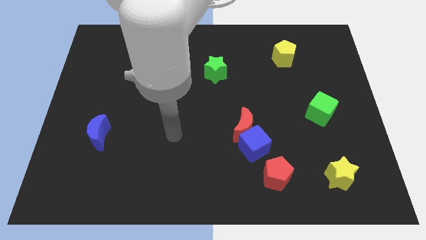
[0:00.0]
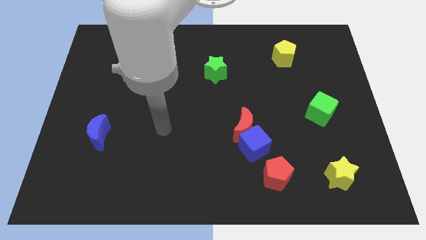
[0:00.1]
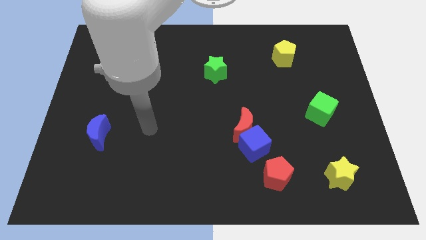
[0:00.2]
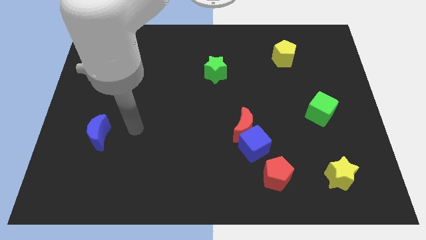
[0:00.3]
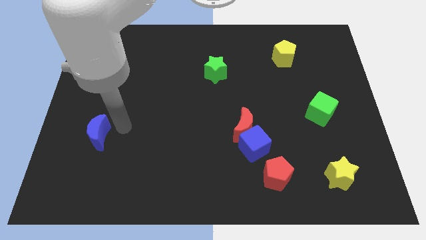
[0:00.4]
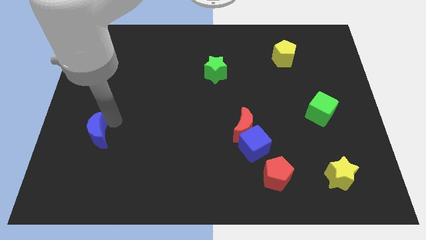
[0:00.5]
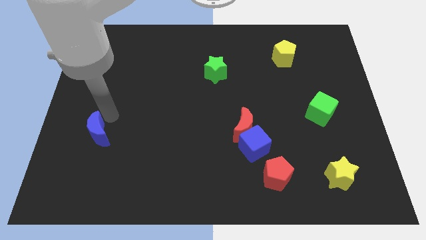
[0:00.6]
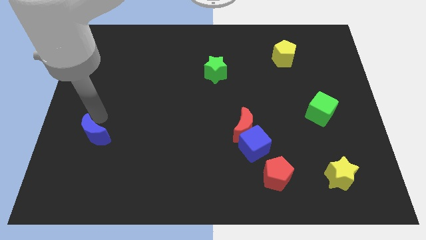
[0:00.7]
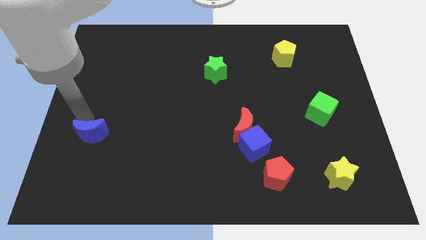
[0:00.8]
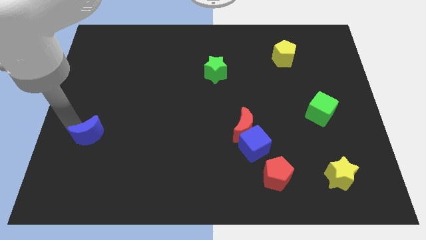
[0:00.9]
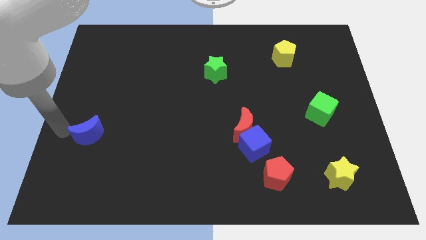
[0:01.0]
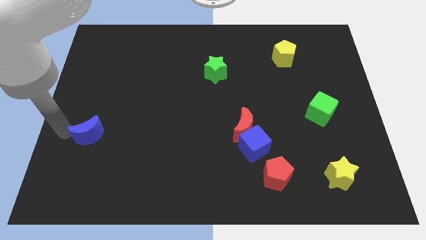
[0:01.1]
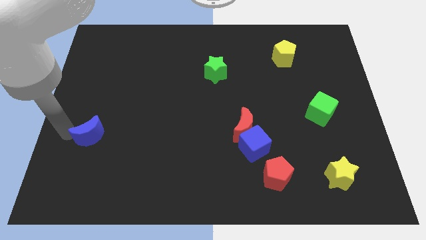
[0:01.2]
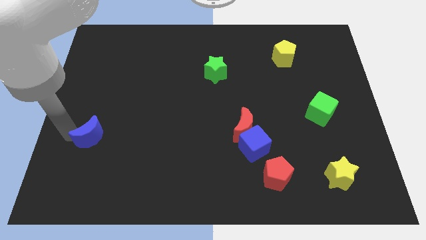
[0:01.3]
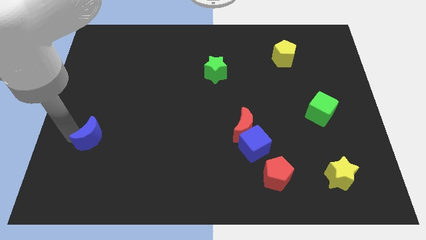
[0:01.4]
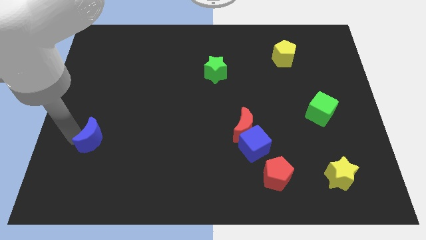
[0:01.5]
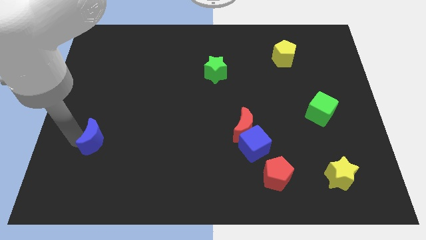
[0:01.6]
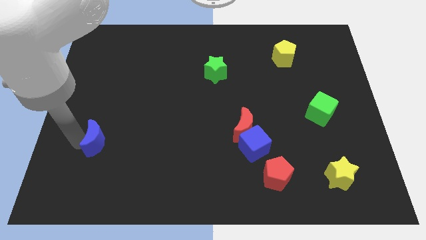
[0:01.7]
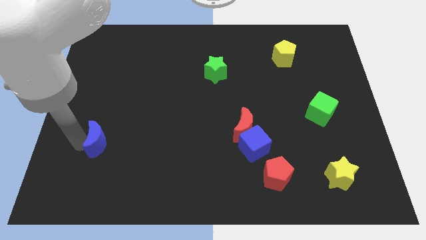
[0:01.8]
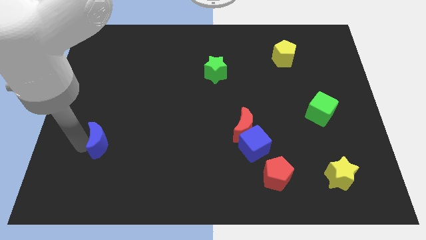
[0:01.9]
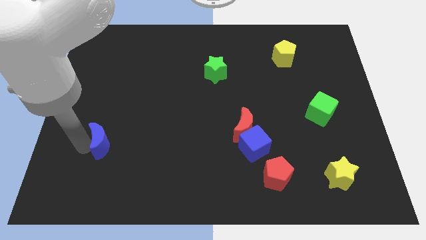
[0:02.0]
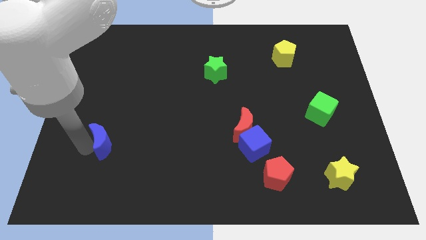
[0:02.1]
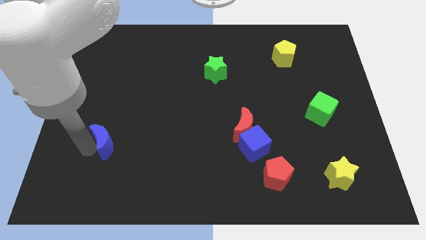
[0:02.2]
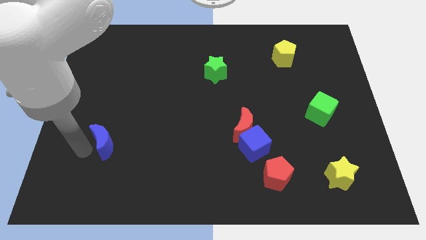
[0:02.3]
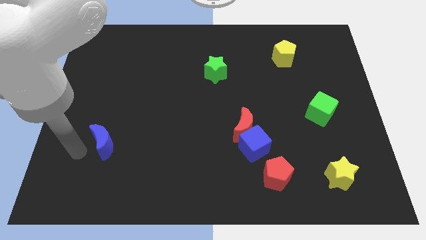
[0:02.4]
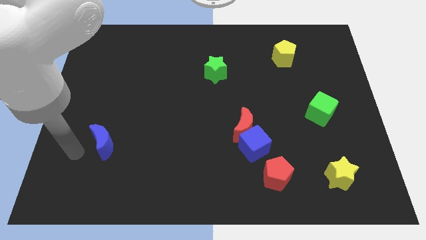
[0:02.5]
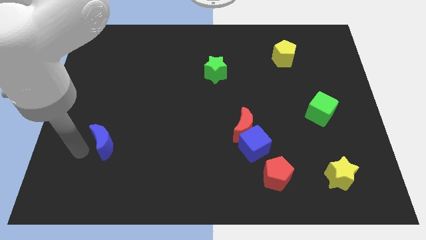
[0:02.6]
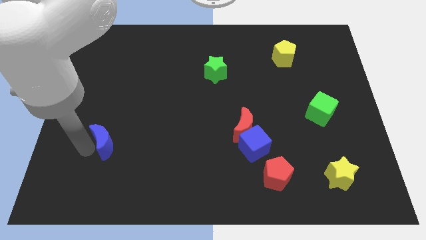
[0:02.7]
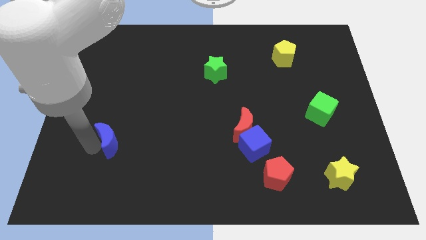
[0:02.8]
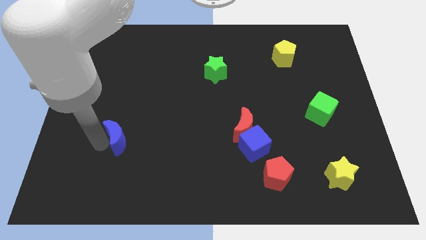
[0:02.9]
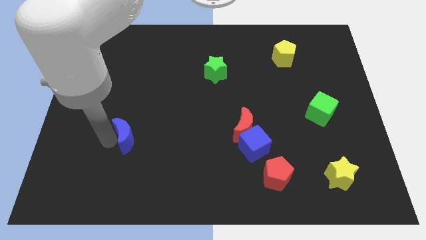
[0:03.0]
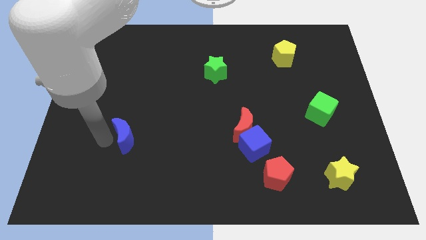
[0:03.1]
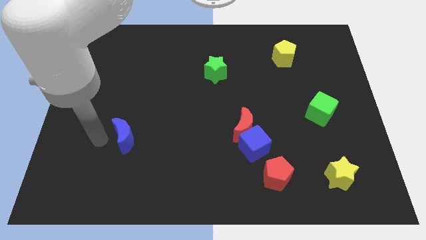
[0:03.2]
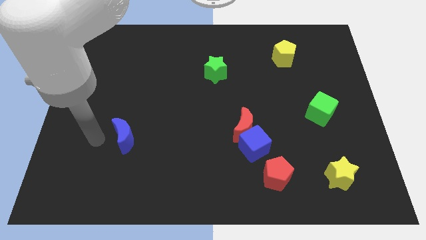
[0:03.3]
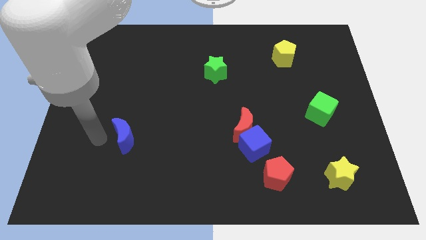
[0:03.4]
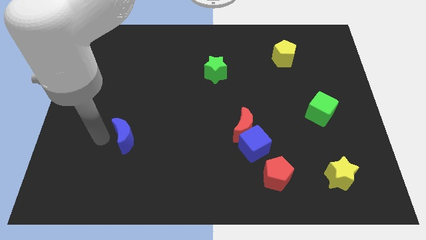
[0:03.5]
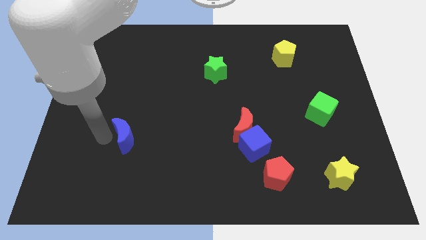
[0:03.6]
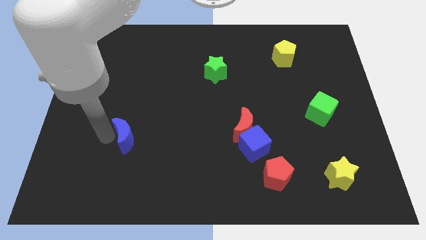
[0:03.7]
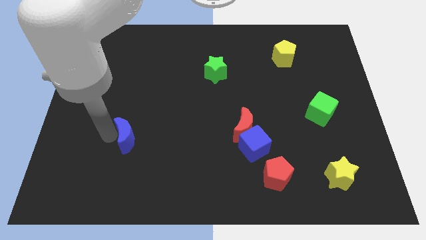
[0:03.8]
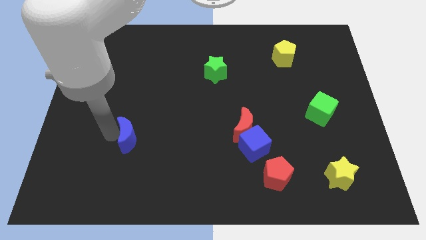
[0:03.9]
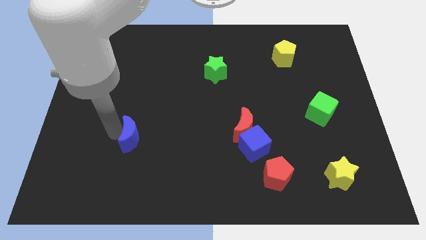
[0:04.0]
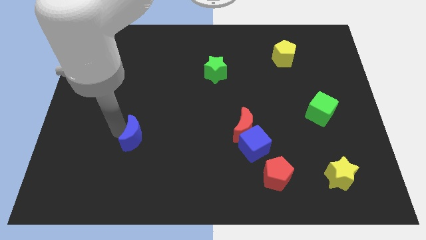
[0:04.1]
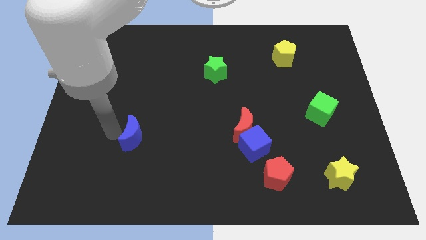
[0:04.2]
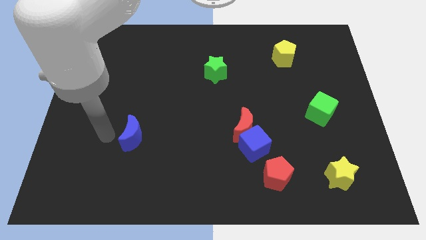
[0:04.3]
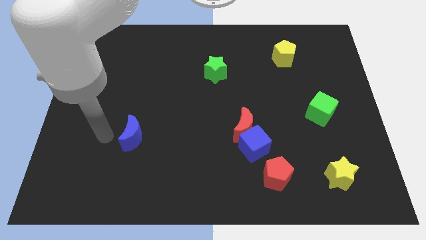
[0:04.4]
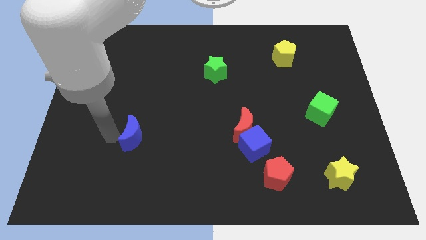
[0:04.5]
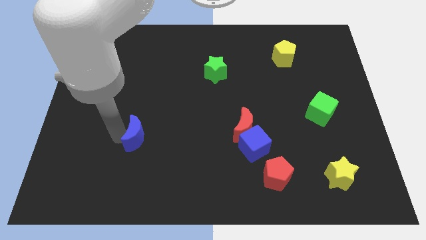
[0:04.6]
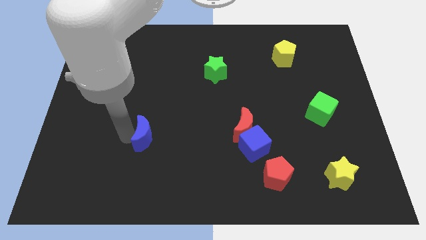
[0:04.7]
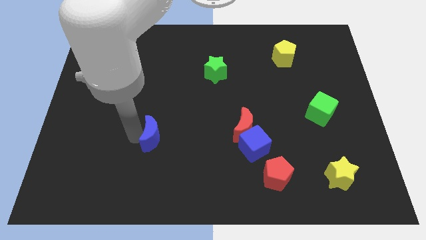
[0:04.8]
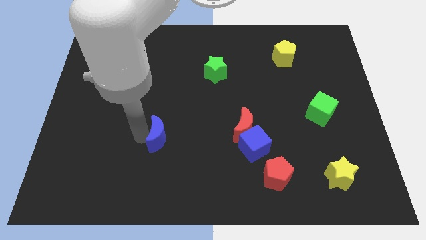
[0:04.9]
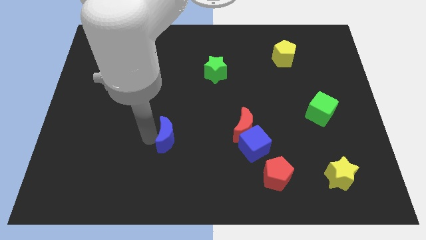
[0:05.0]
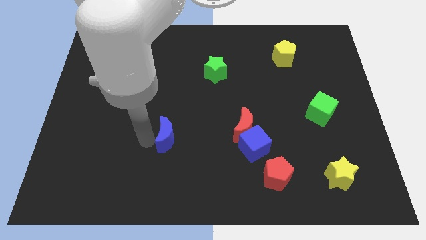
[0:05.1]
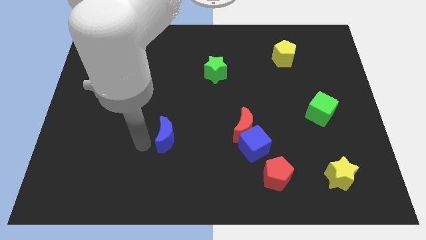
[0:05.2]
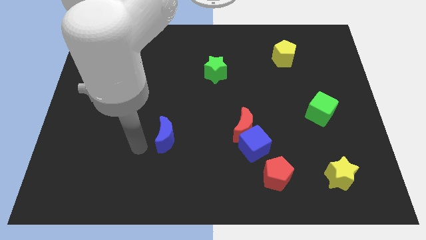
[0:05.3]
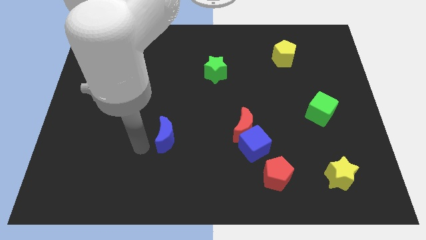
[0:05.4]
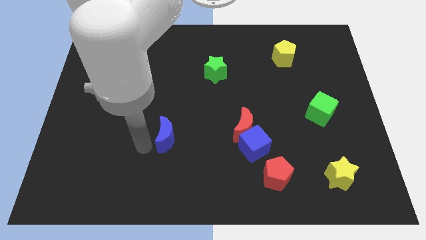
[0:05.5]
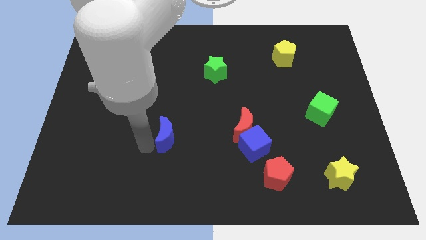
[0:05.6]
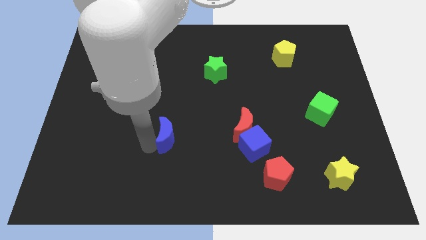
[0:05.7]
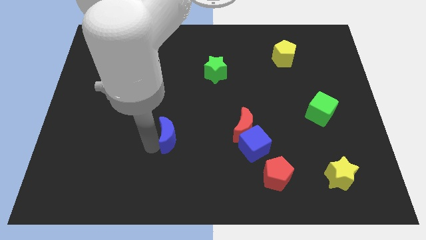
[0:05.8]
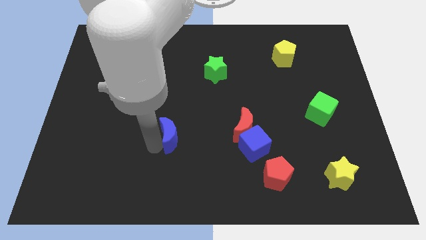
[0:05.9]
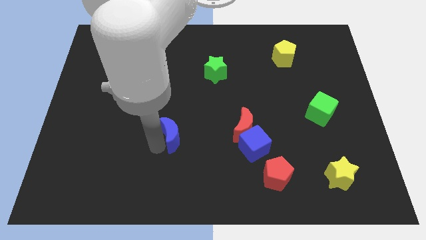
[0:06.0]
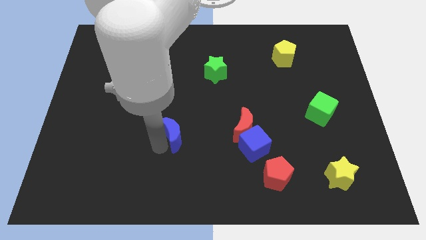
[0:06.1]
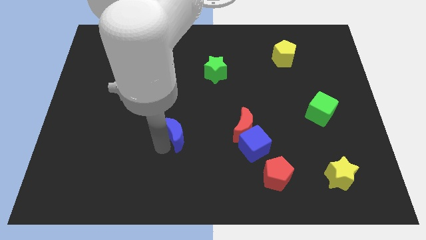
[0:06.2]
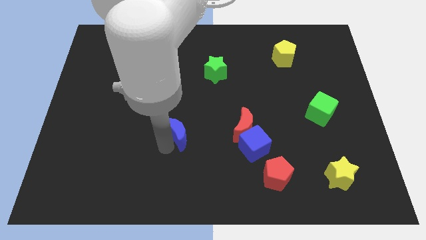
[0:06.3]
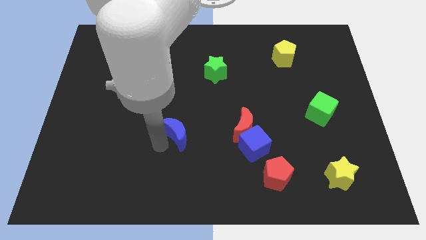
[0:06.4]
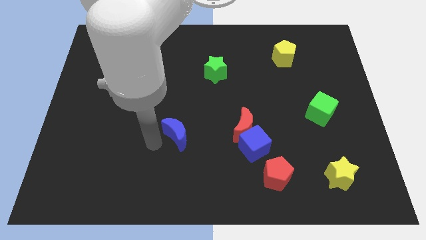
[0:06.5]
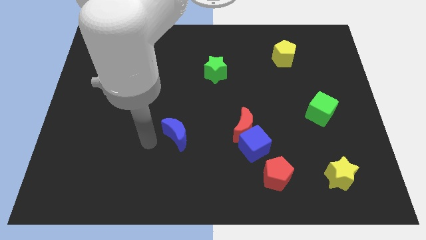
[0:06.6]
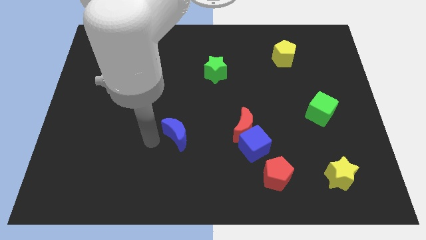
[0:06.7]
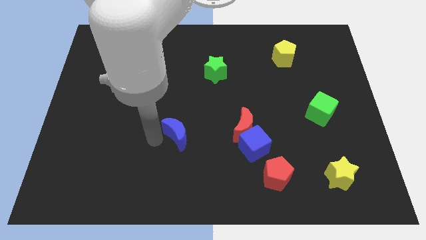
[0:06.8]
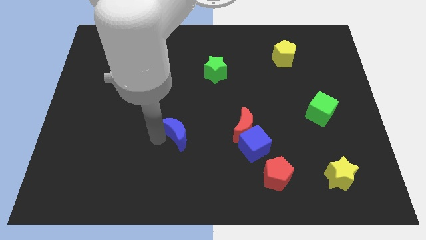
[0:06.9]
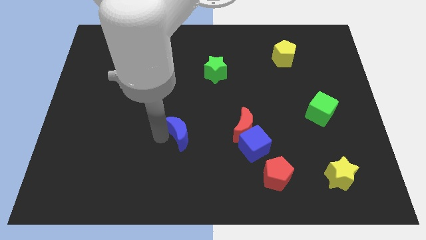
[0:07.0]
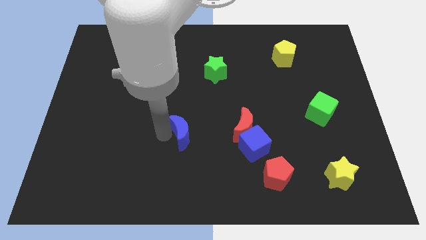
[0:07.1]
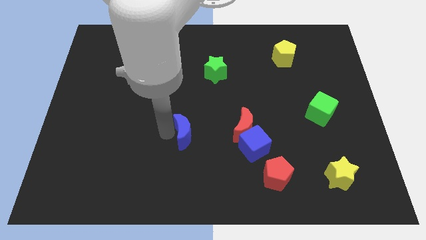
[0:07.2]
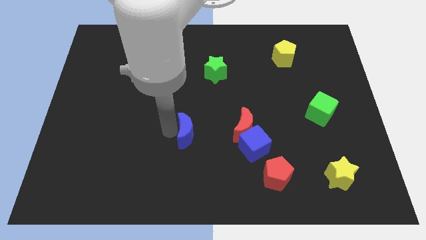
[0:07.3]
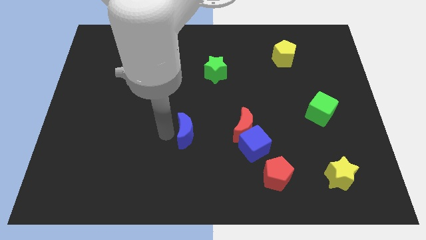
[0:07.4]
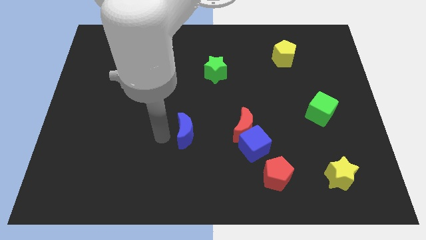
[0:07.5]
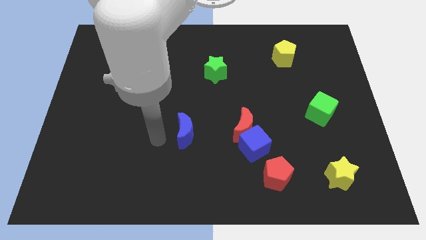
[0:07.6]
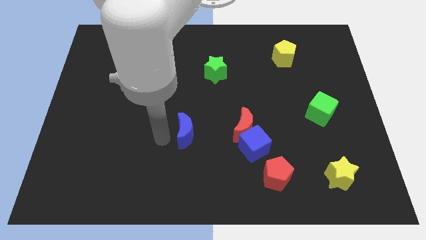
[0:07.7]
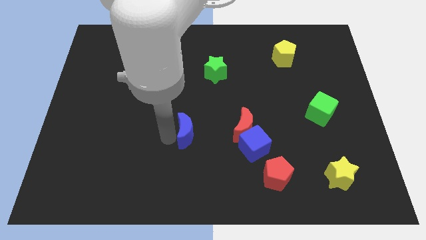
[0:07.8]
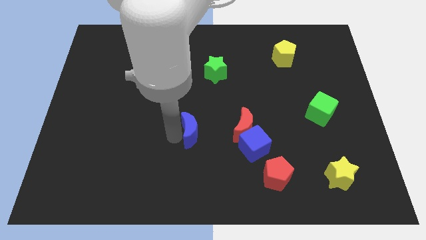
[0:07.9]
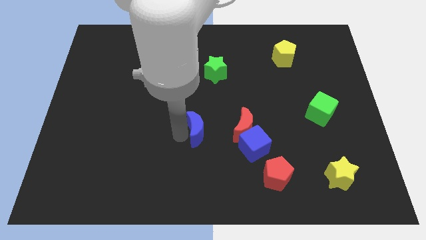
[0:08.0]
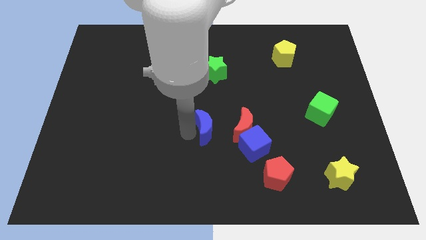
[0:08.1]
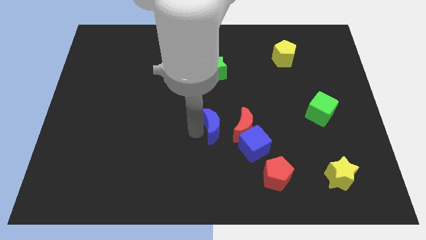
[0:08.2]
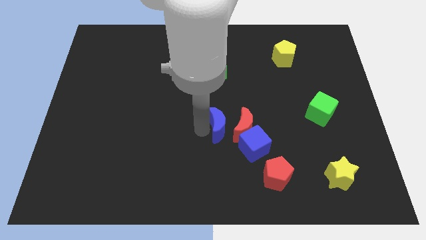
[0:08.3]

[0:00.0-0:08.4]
slide the blue moon towards the red moon
